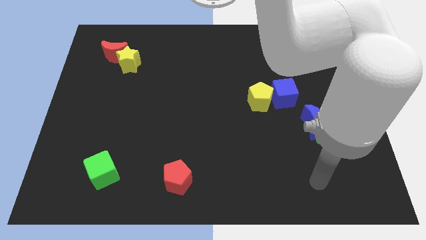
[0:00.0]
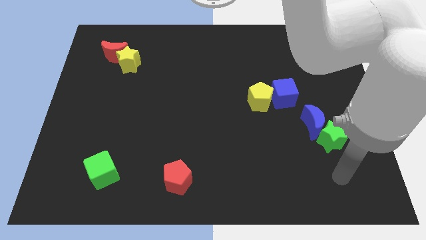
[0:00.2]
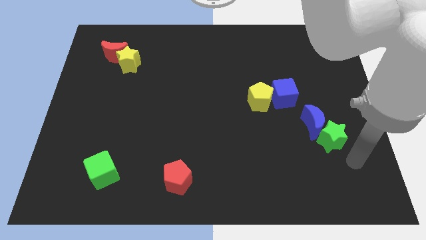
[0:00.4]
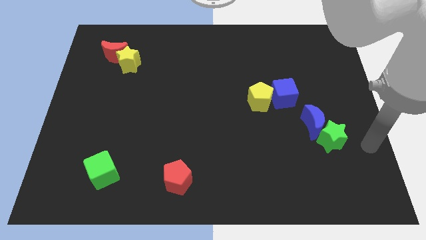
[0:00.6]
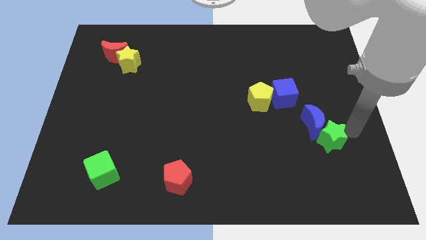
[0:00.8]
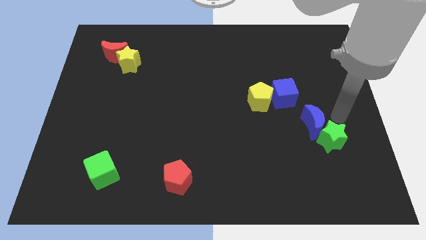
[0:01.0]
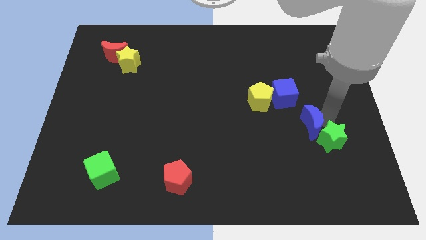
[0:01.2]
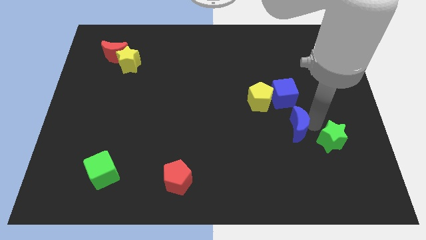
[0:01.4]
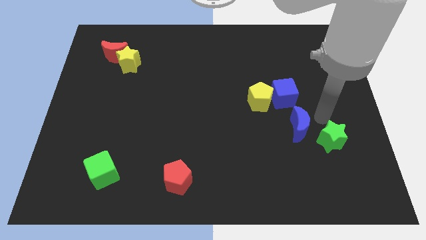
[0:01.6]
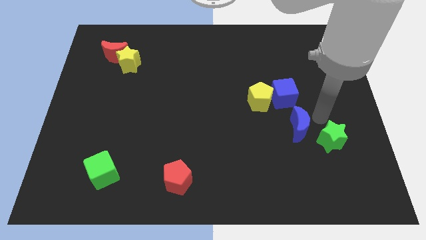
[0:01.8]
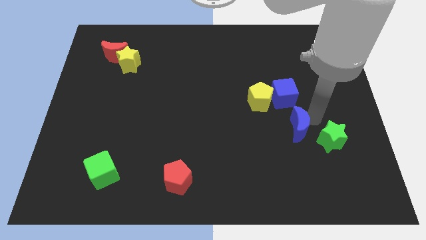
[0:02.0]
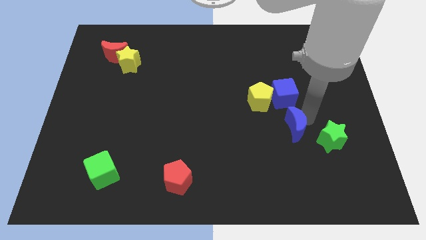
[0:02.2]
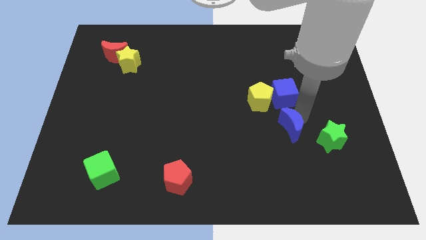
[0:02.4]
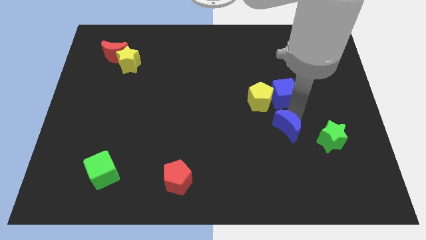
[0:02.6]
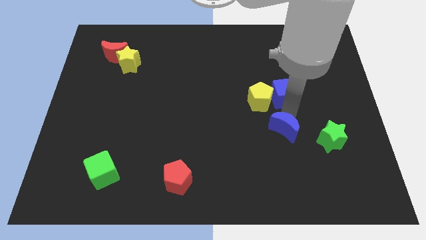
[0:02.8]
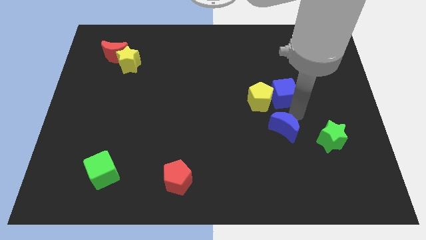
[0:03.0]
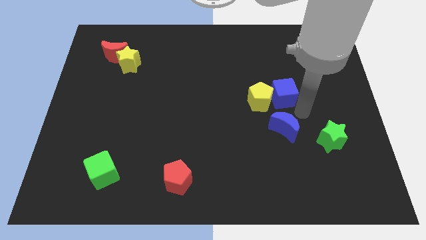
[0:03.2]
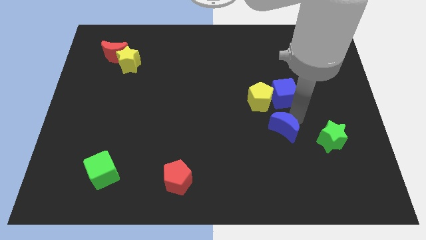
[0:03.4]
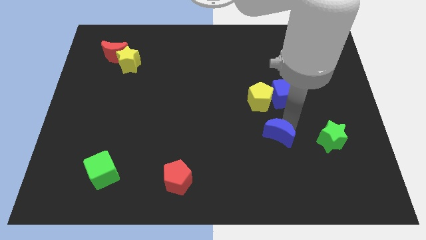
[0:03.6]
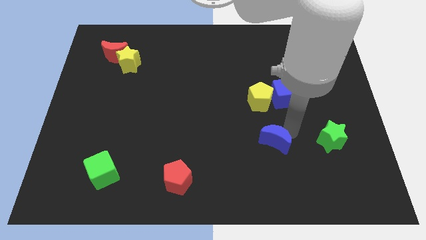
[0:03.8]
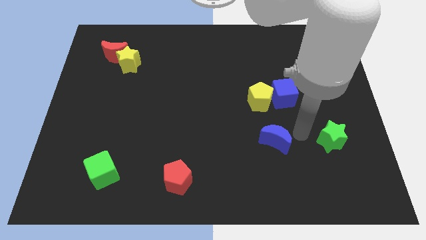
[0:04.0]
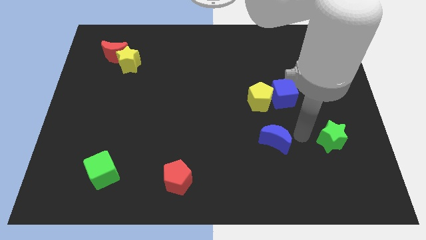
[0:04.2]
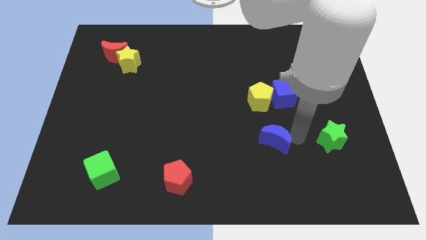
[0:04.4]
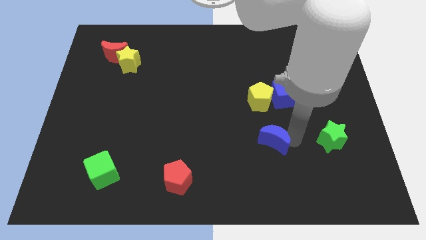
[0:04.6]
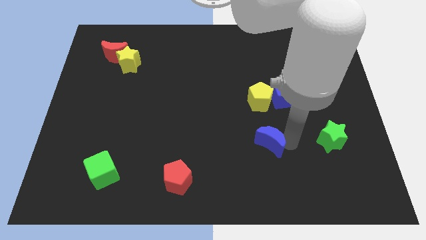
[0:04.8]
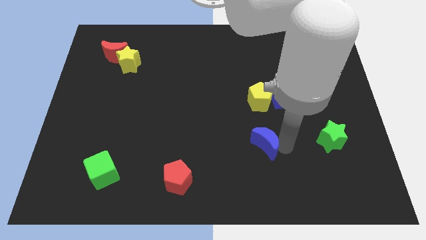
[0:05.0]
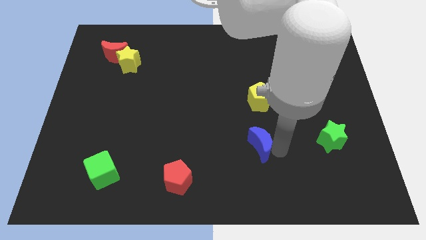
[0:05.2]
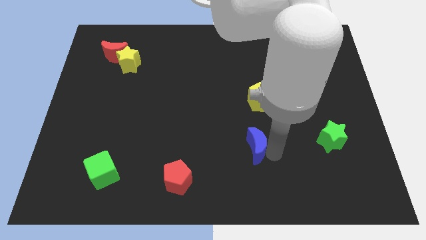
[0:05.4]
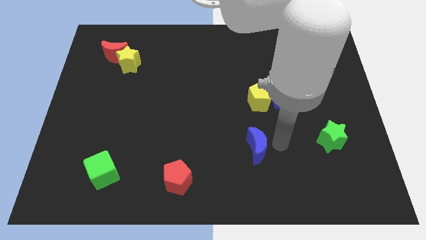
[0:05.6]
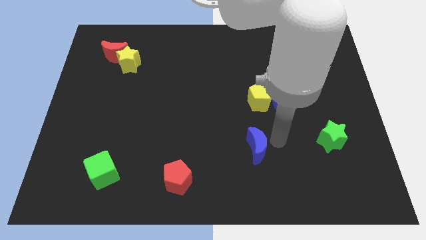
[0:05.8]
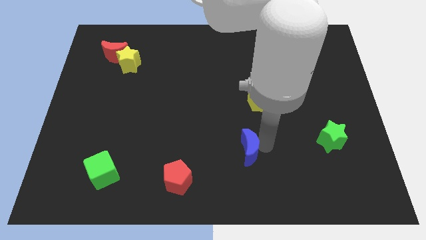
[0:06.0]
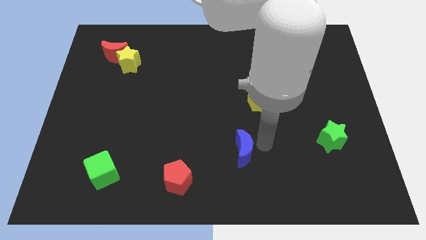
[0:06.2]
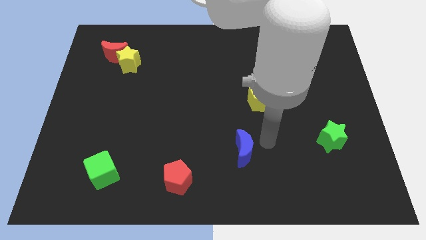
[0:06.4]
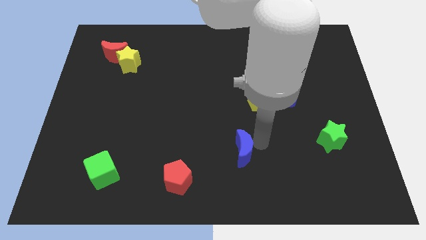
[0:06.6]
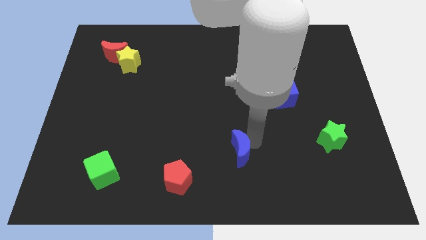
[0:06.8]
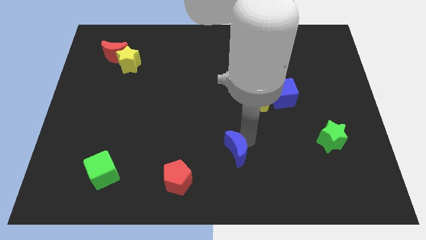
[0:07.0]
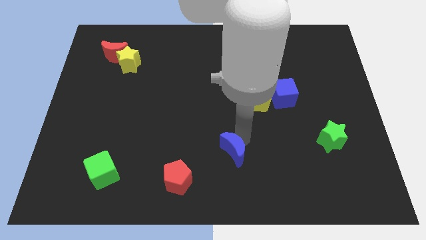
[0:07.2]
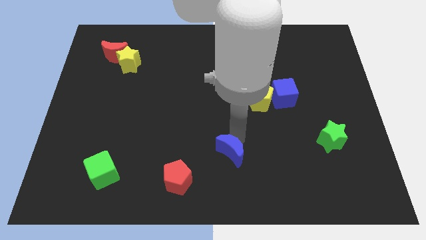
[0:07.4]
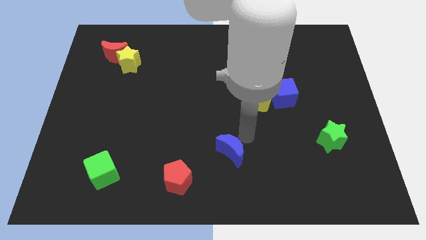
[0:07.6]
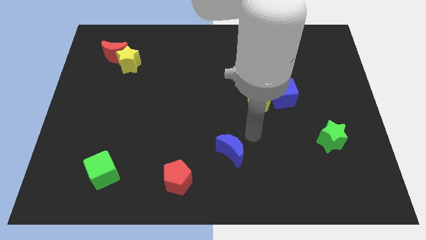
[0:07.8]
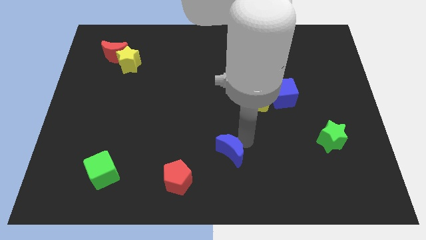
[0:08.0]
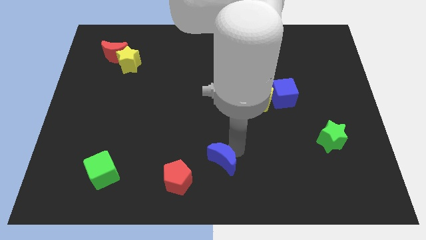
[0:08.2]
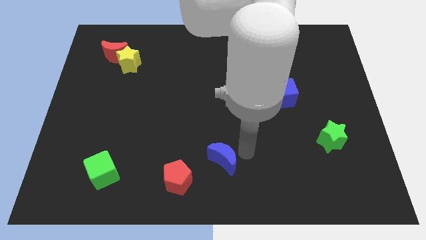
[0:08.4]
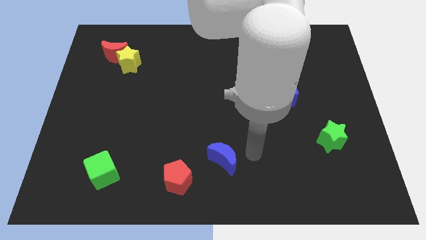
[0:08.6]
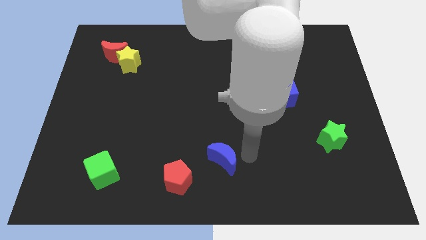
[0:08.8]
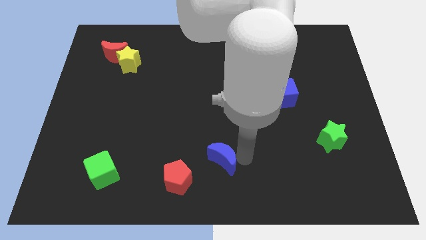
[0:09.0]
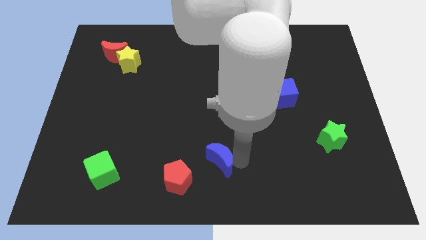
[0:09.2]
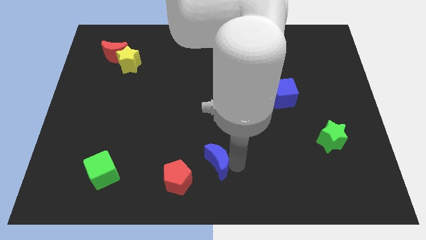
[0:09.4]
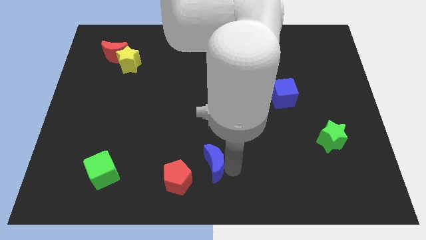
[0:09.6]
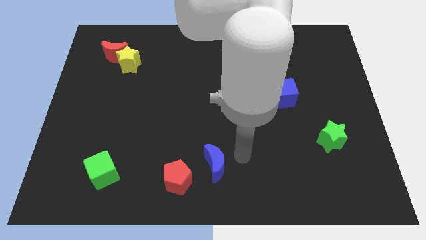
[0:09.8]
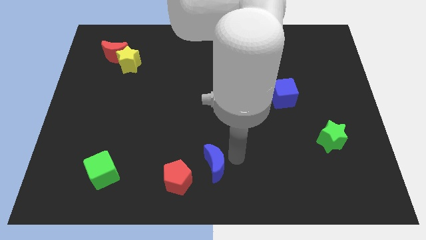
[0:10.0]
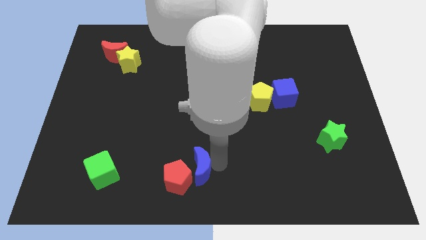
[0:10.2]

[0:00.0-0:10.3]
slide the blue moon towards the red pentagon

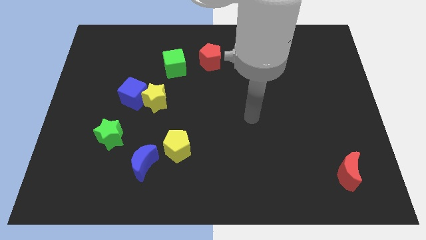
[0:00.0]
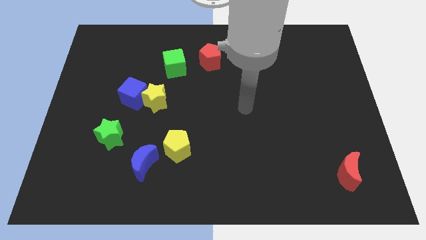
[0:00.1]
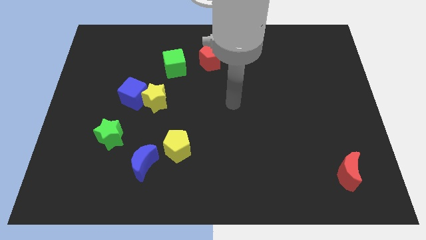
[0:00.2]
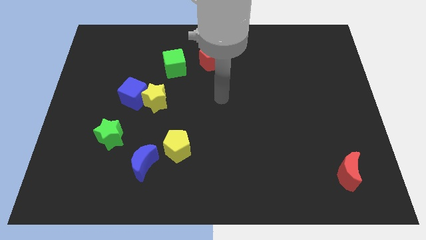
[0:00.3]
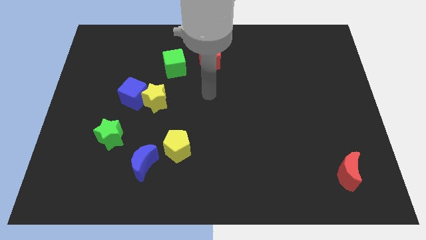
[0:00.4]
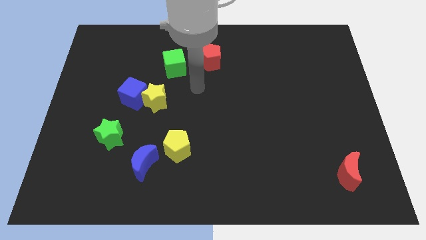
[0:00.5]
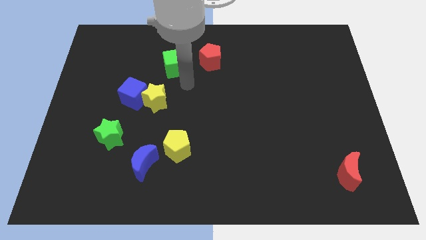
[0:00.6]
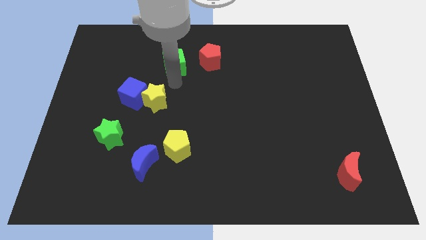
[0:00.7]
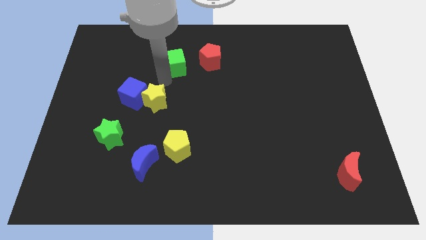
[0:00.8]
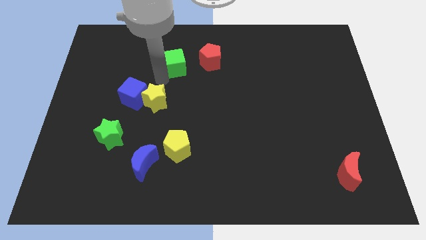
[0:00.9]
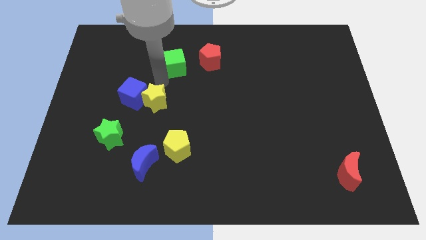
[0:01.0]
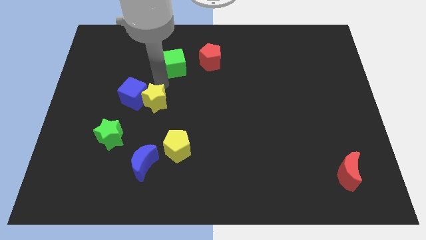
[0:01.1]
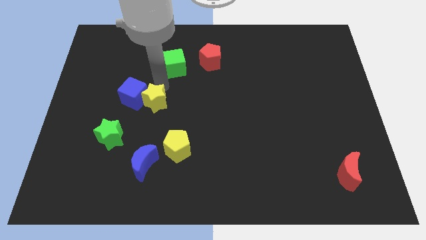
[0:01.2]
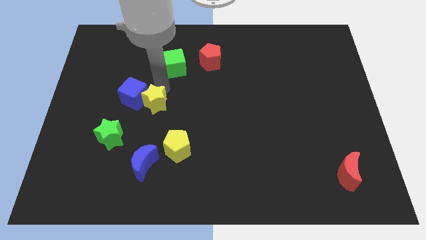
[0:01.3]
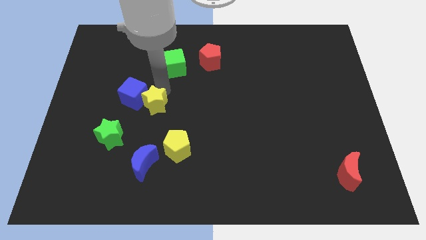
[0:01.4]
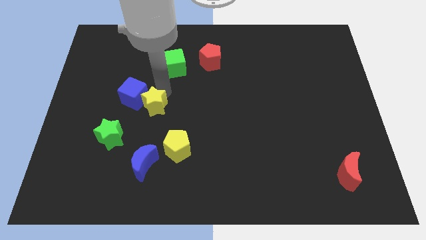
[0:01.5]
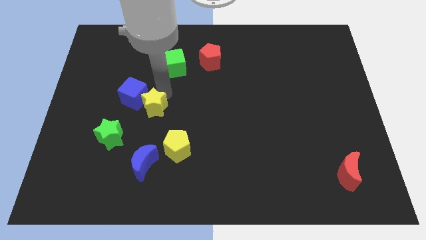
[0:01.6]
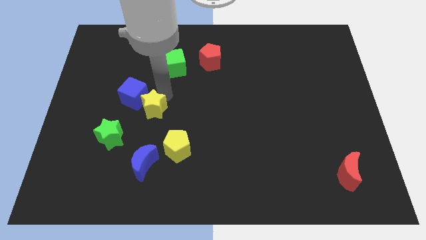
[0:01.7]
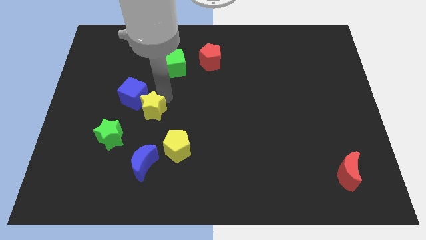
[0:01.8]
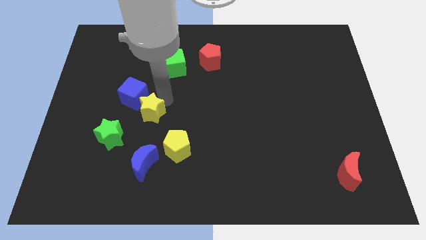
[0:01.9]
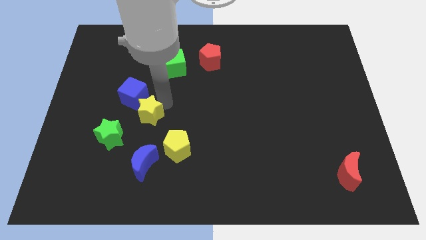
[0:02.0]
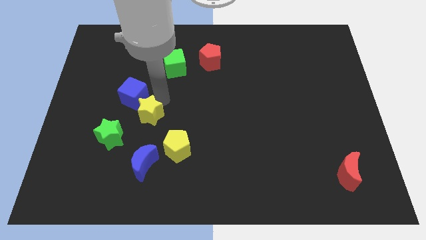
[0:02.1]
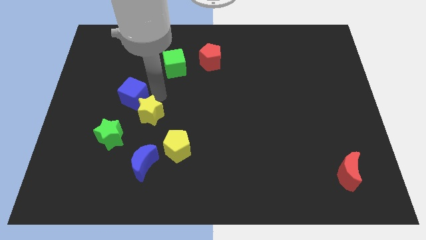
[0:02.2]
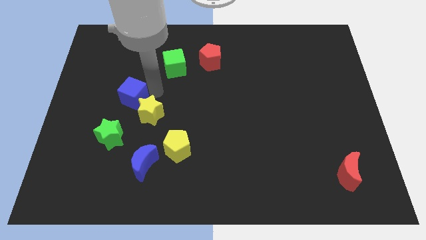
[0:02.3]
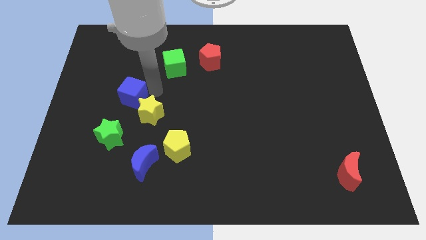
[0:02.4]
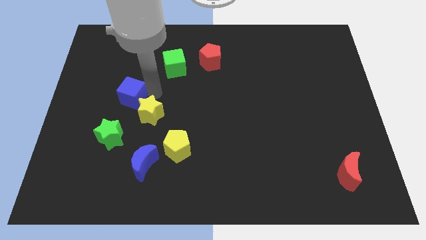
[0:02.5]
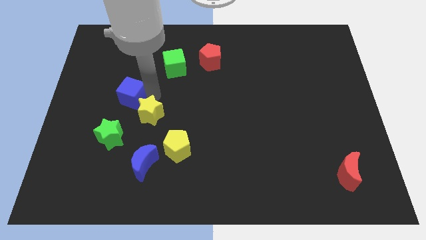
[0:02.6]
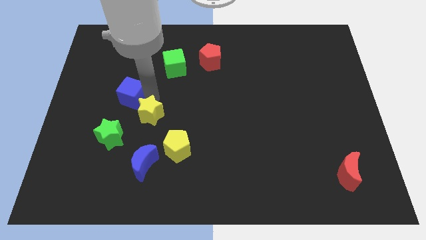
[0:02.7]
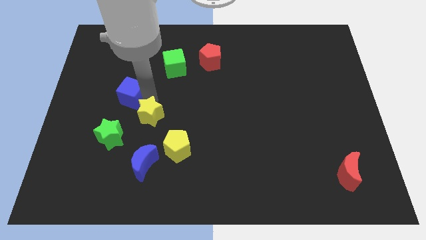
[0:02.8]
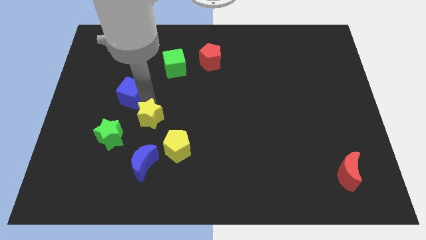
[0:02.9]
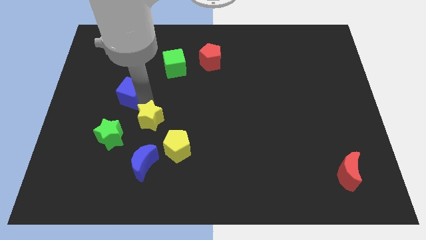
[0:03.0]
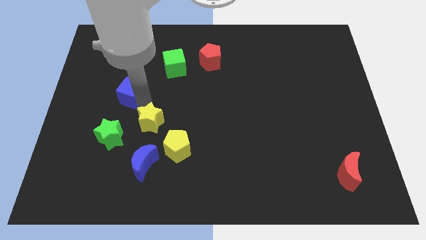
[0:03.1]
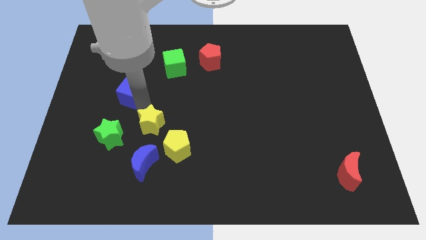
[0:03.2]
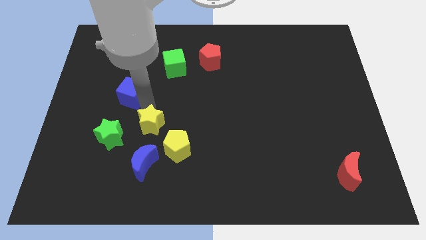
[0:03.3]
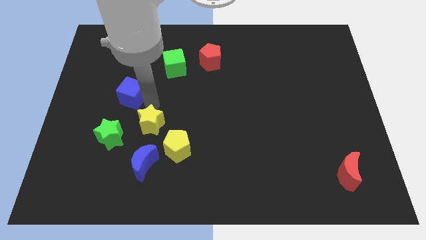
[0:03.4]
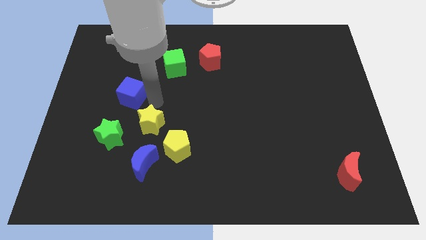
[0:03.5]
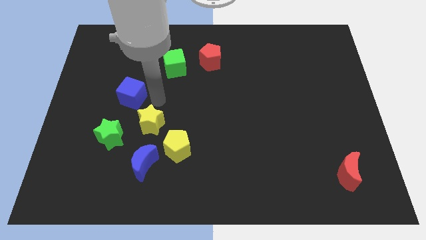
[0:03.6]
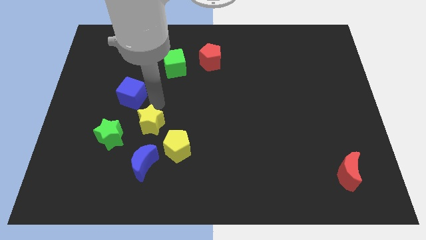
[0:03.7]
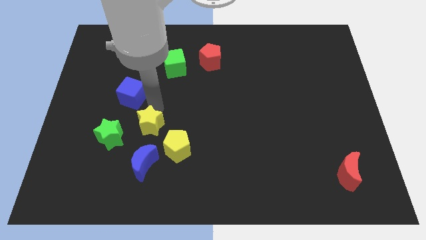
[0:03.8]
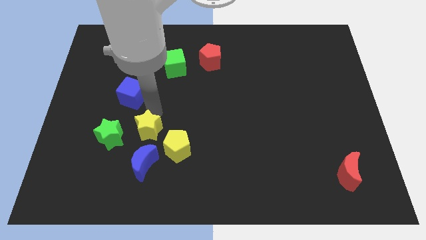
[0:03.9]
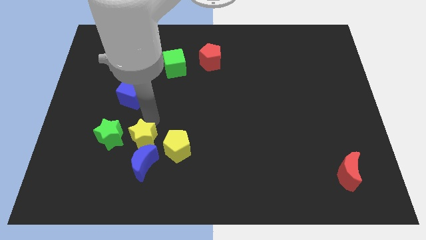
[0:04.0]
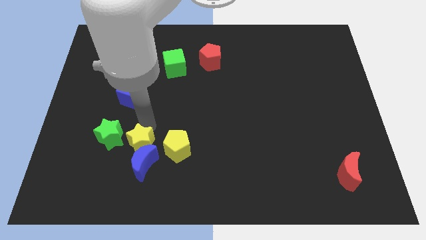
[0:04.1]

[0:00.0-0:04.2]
slide the yellow star towards the blue moon
